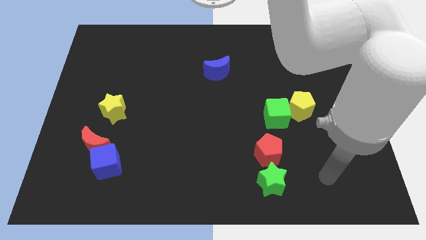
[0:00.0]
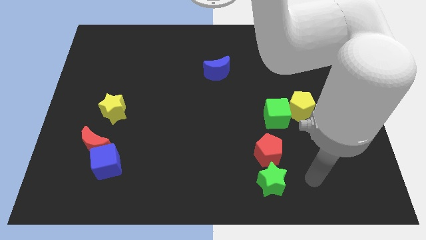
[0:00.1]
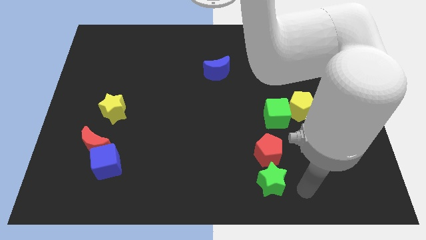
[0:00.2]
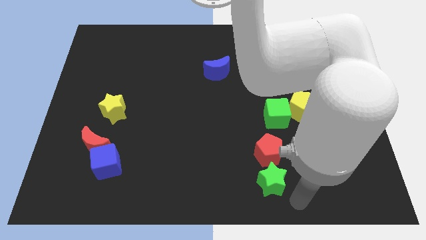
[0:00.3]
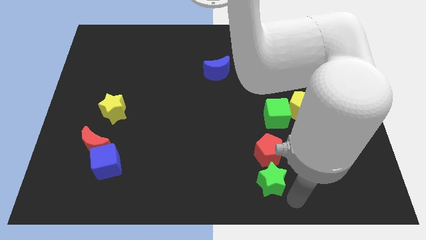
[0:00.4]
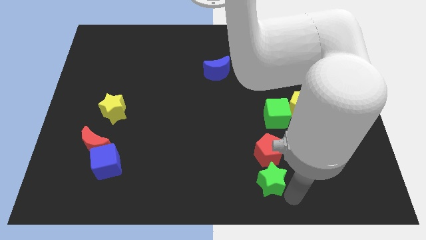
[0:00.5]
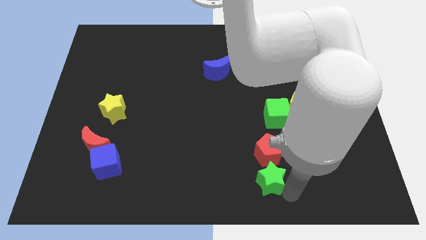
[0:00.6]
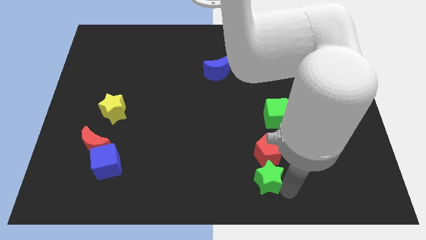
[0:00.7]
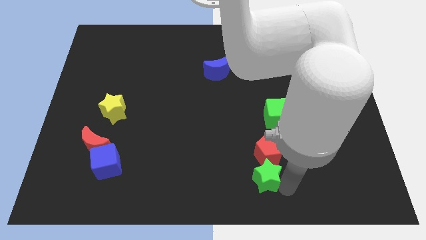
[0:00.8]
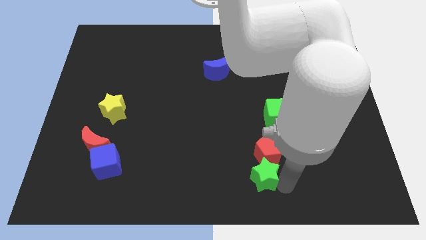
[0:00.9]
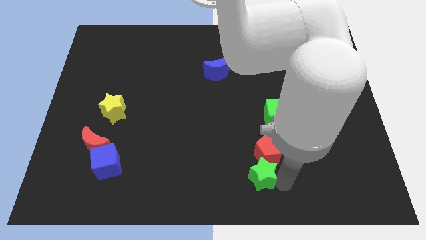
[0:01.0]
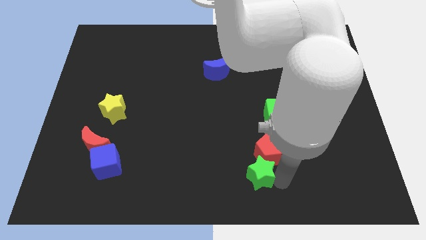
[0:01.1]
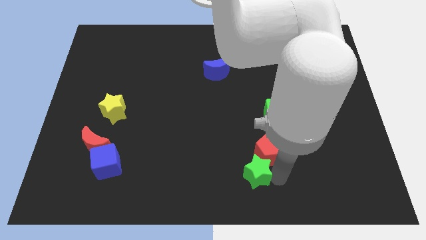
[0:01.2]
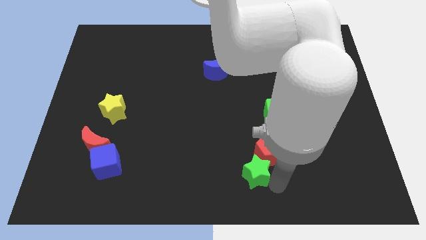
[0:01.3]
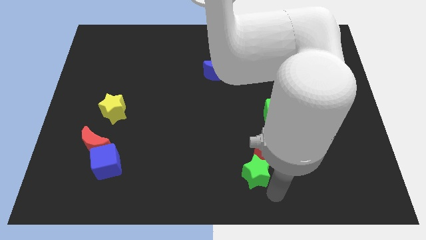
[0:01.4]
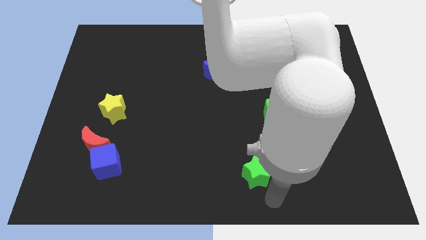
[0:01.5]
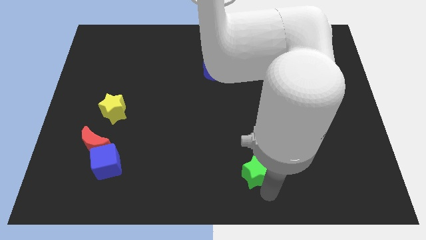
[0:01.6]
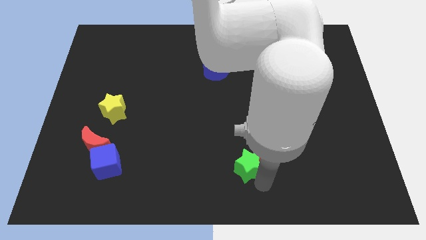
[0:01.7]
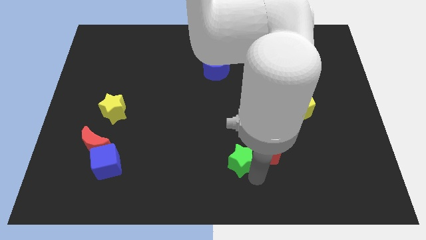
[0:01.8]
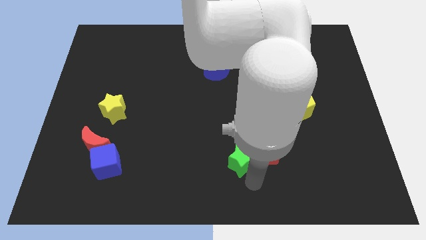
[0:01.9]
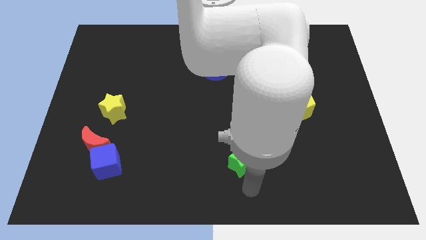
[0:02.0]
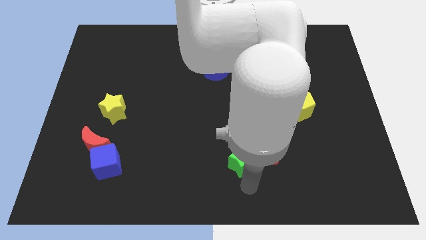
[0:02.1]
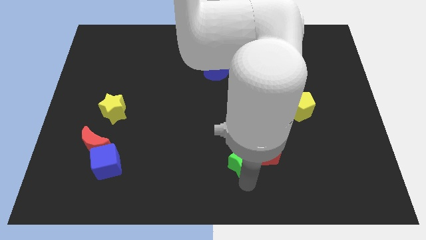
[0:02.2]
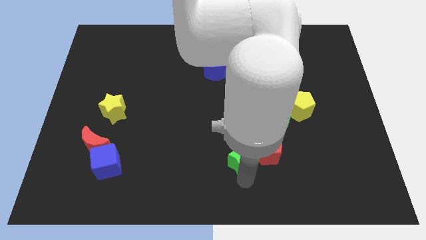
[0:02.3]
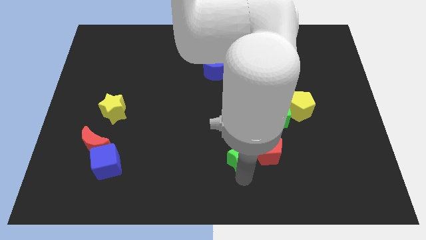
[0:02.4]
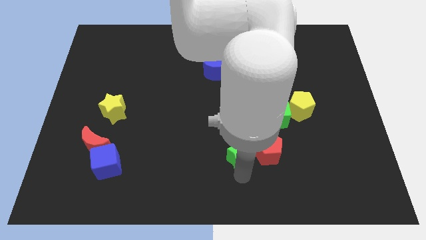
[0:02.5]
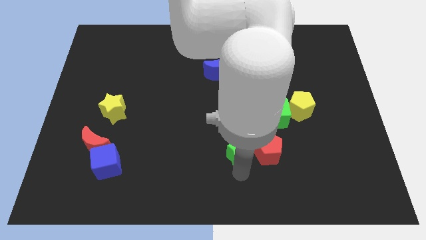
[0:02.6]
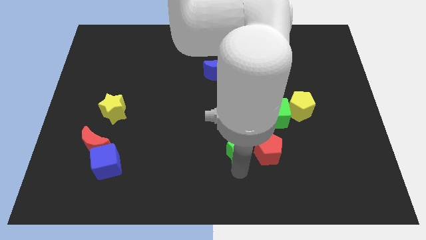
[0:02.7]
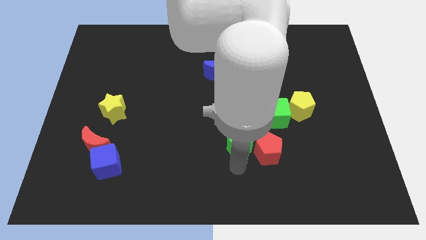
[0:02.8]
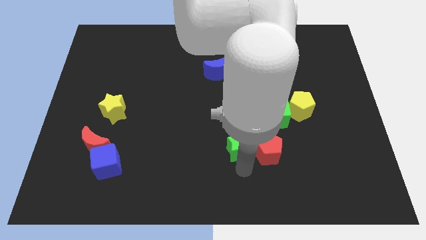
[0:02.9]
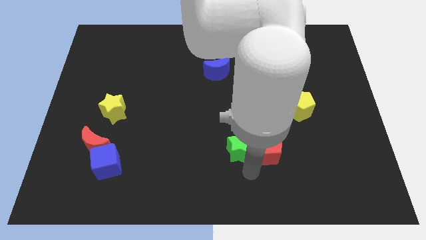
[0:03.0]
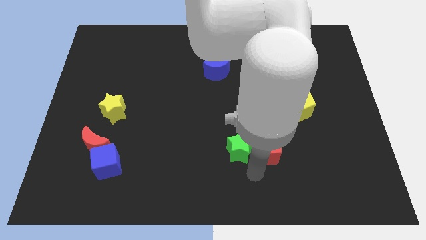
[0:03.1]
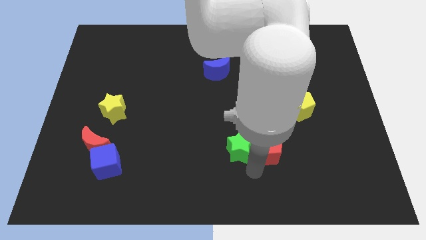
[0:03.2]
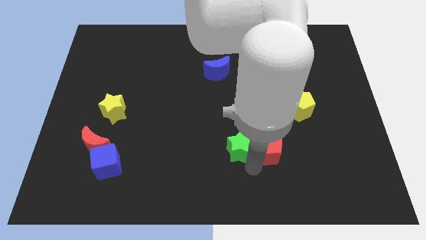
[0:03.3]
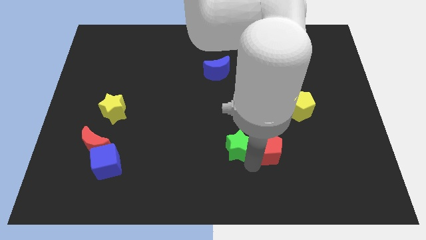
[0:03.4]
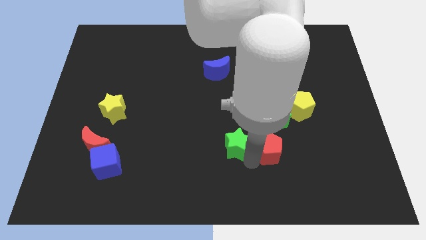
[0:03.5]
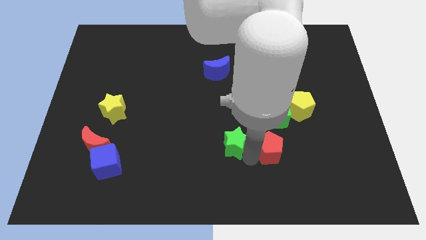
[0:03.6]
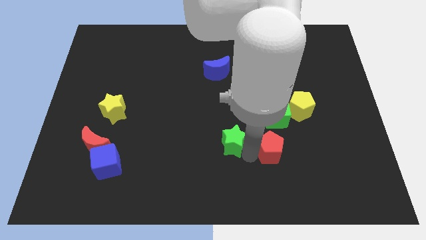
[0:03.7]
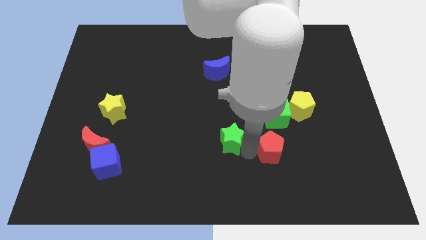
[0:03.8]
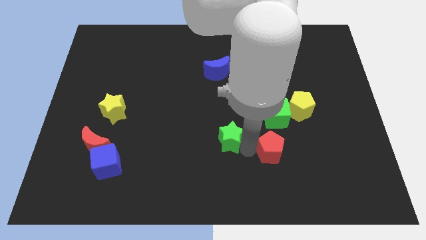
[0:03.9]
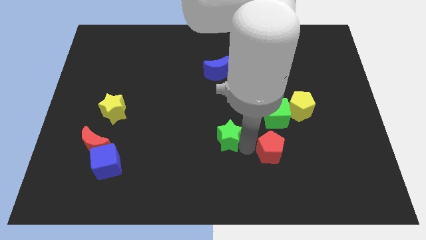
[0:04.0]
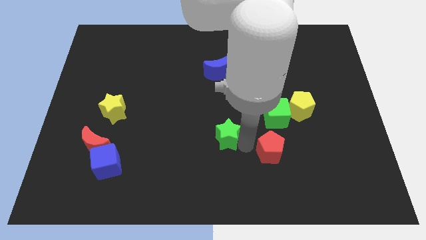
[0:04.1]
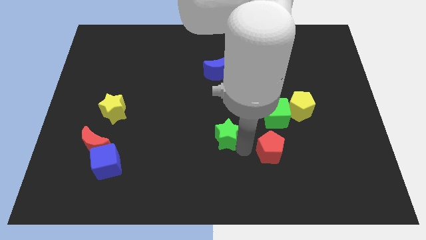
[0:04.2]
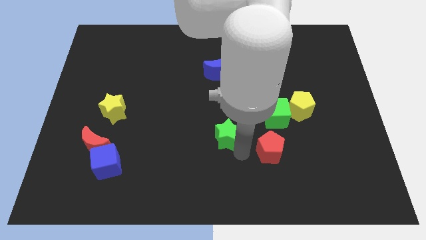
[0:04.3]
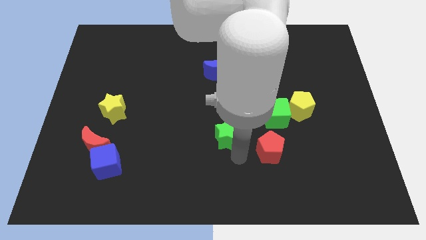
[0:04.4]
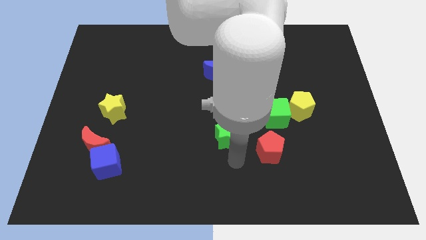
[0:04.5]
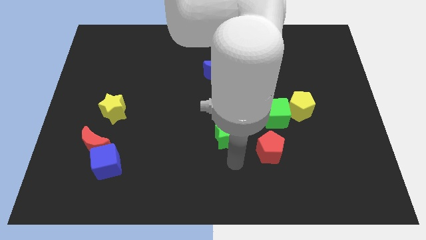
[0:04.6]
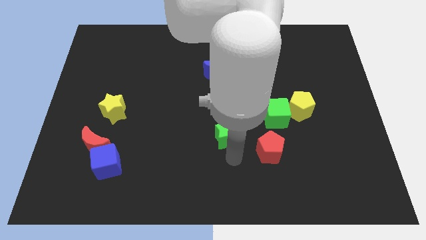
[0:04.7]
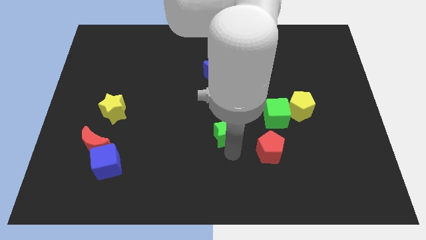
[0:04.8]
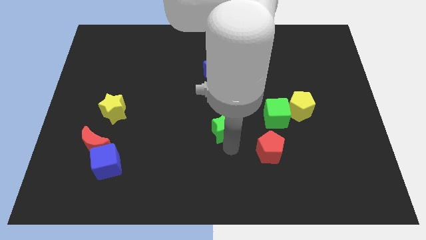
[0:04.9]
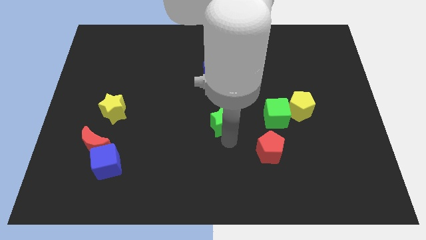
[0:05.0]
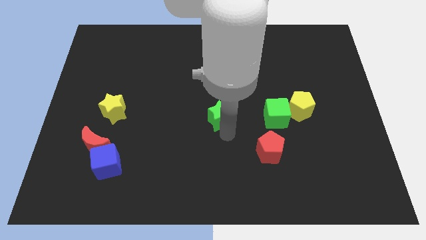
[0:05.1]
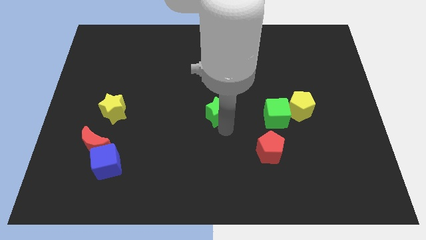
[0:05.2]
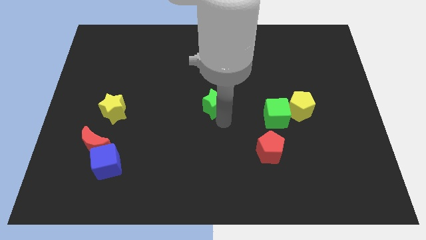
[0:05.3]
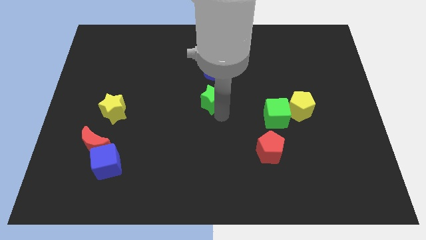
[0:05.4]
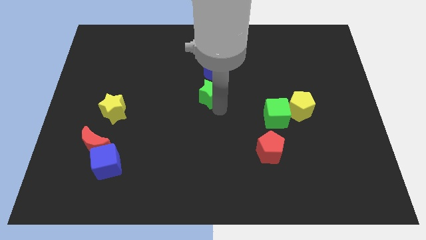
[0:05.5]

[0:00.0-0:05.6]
put the green star to the bottom left side of the blue moon
